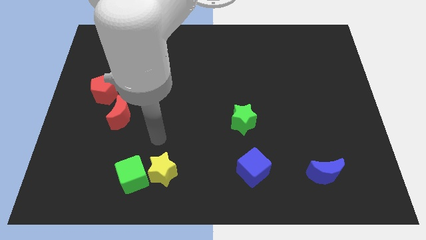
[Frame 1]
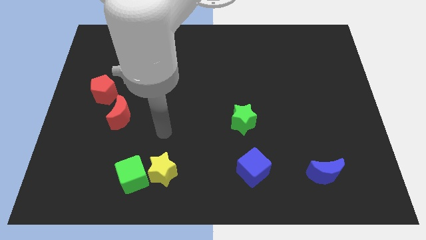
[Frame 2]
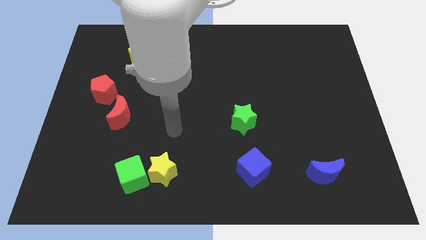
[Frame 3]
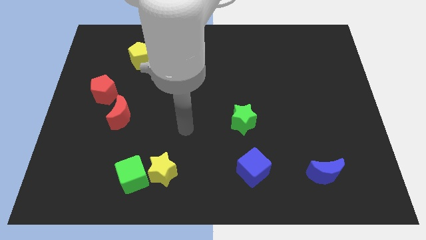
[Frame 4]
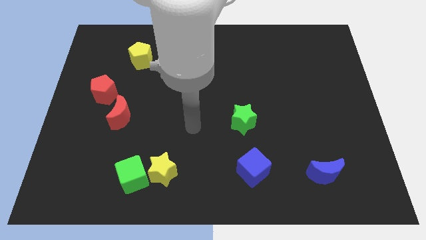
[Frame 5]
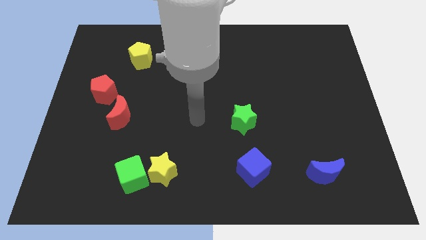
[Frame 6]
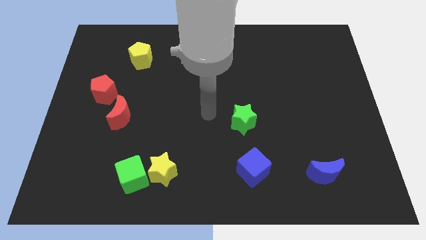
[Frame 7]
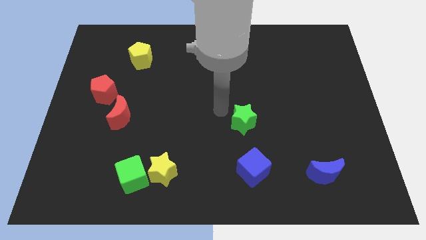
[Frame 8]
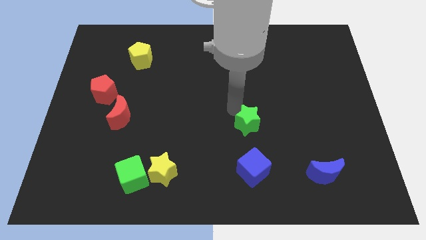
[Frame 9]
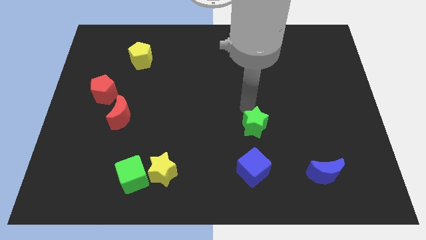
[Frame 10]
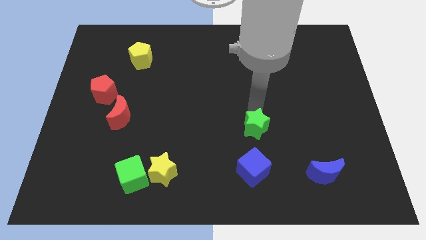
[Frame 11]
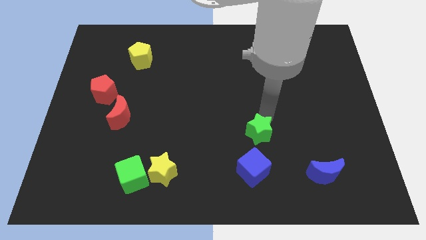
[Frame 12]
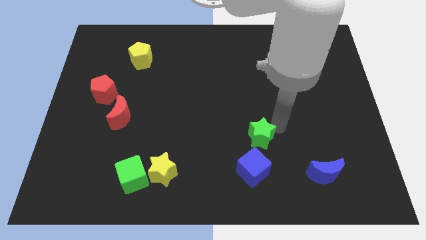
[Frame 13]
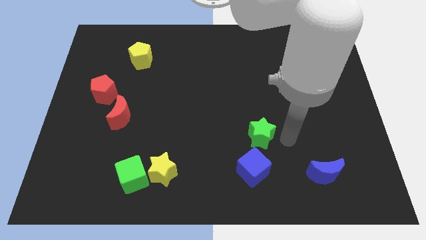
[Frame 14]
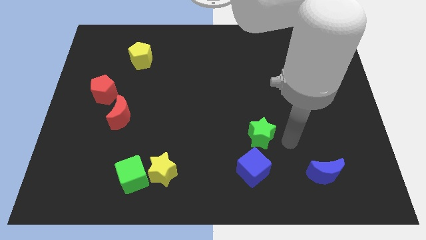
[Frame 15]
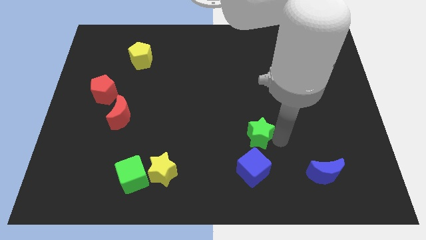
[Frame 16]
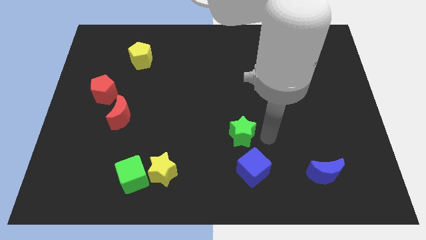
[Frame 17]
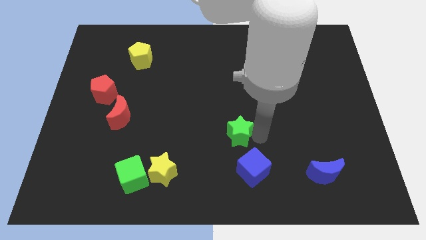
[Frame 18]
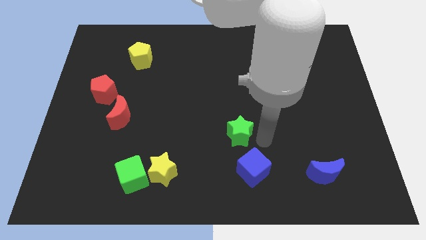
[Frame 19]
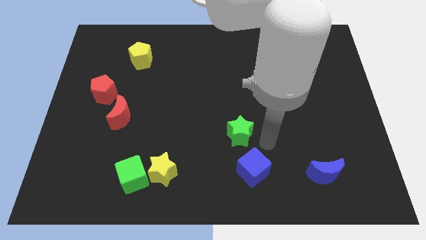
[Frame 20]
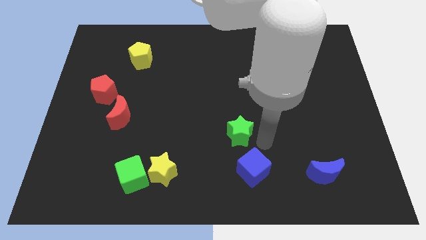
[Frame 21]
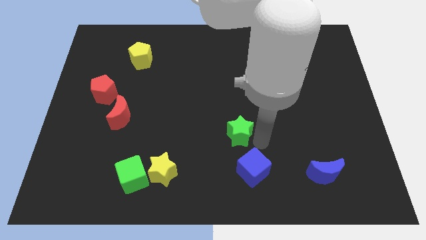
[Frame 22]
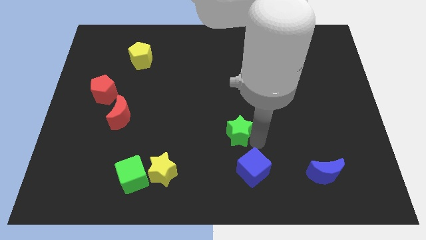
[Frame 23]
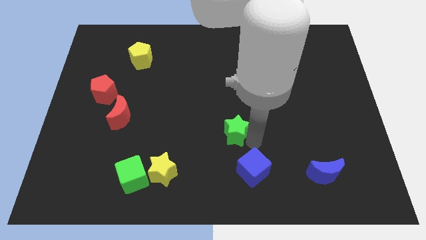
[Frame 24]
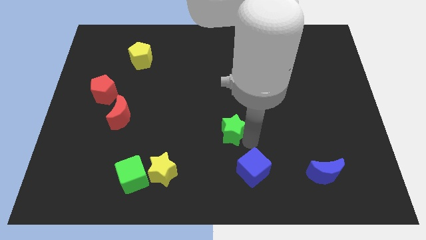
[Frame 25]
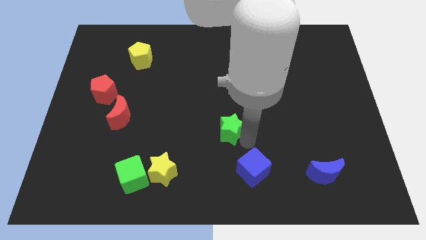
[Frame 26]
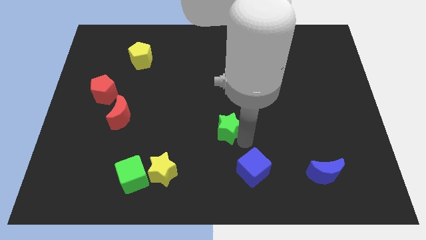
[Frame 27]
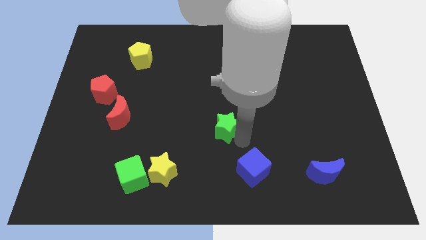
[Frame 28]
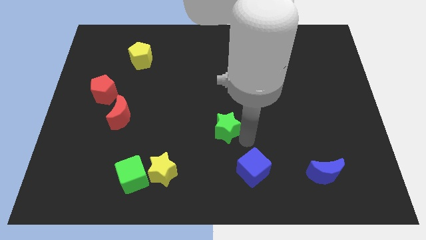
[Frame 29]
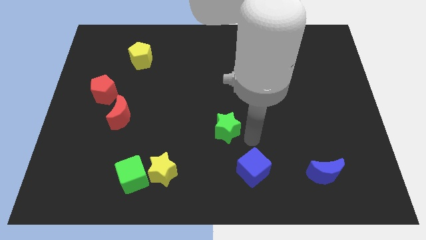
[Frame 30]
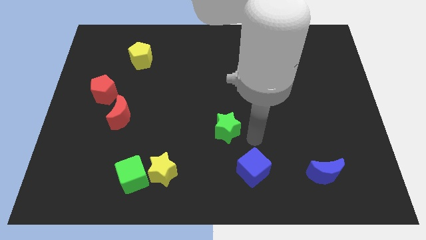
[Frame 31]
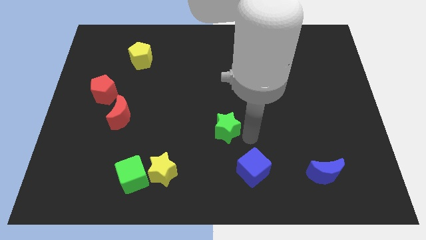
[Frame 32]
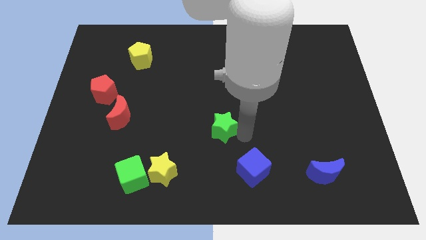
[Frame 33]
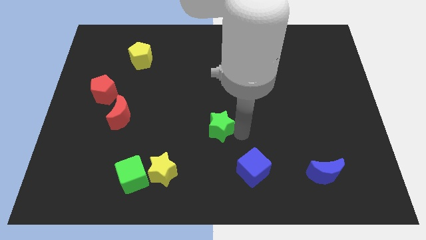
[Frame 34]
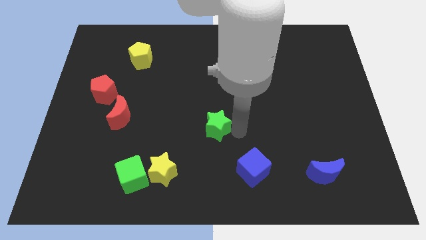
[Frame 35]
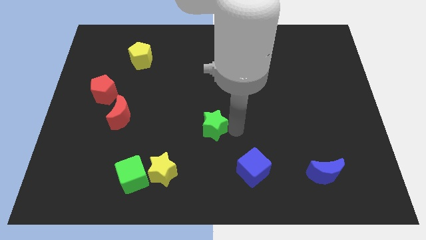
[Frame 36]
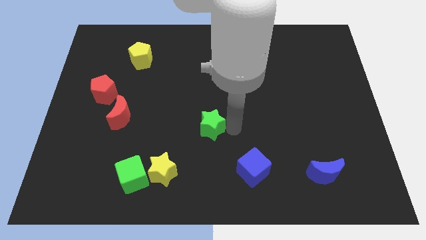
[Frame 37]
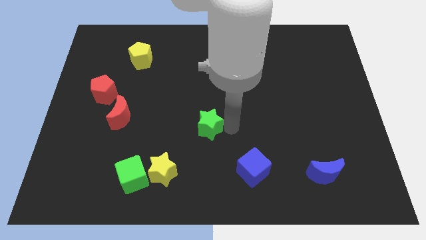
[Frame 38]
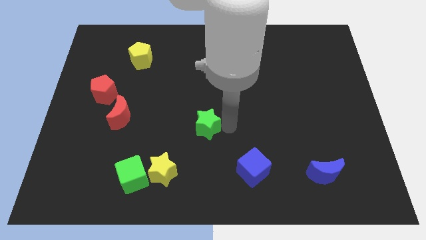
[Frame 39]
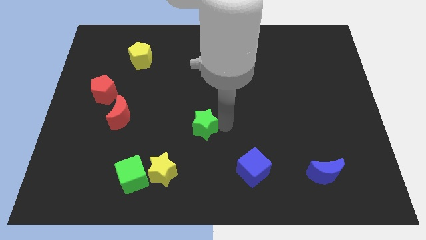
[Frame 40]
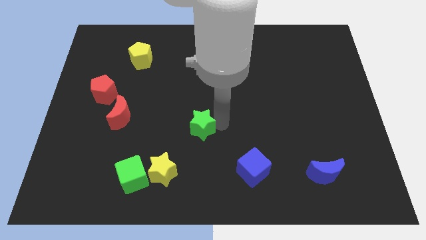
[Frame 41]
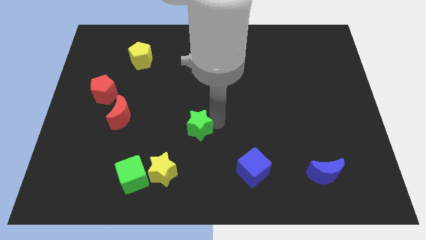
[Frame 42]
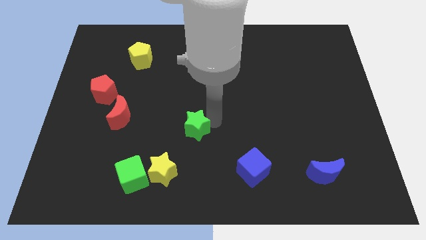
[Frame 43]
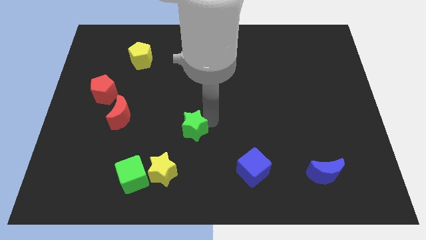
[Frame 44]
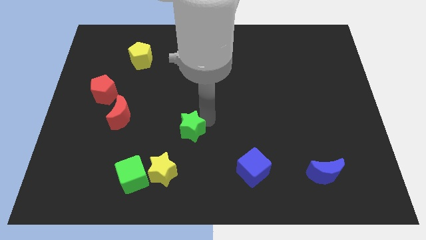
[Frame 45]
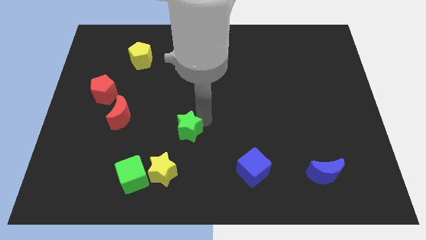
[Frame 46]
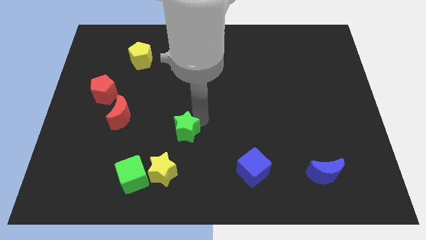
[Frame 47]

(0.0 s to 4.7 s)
move the green star above the yellow star

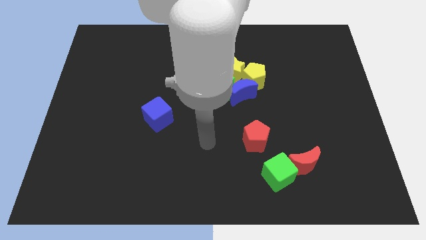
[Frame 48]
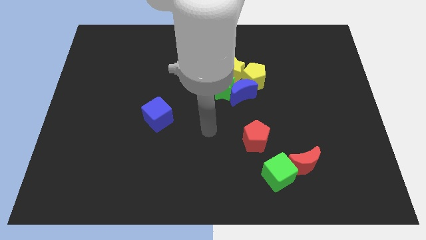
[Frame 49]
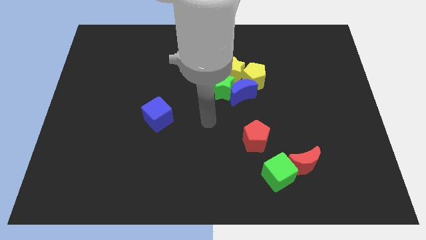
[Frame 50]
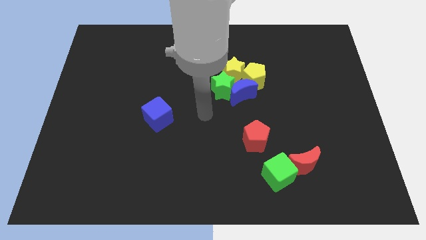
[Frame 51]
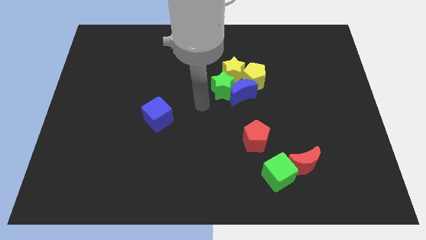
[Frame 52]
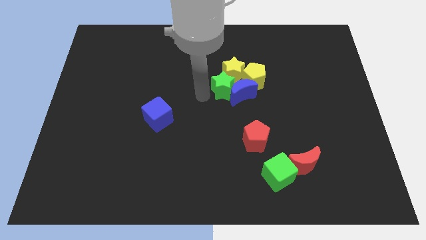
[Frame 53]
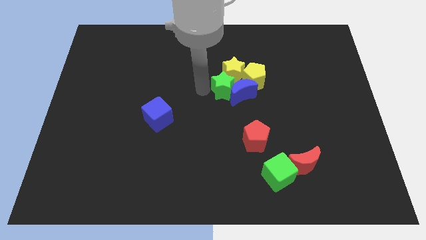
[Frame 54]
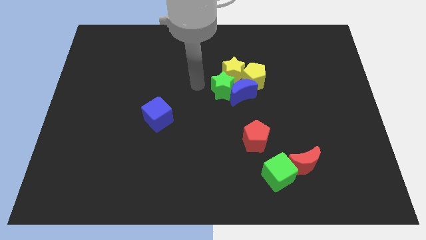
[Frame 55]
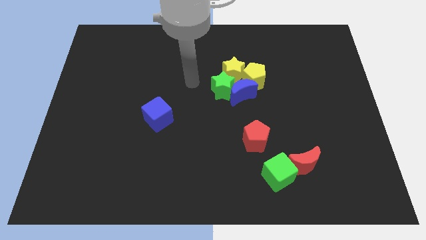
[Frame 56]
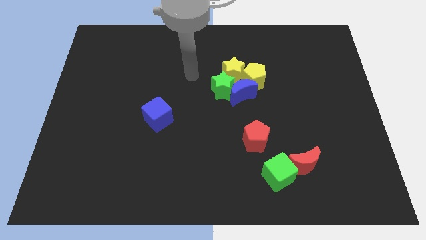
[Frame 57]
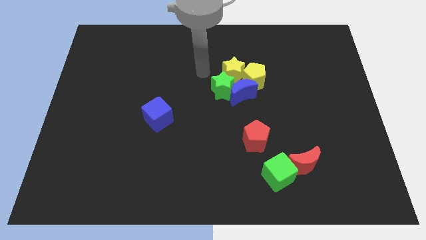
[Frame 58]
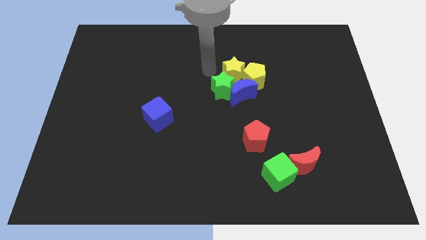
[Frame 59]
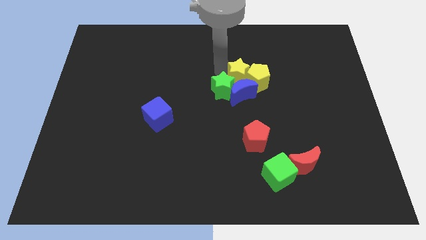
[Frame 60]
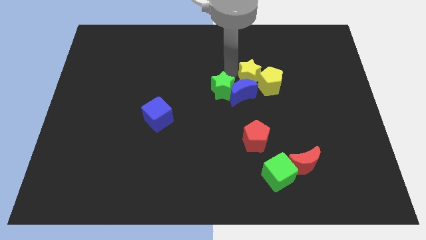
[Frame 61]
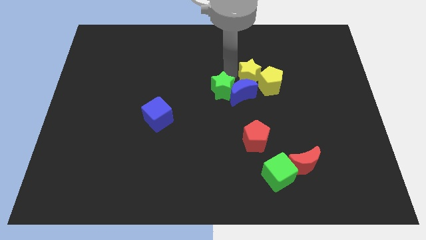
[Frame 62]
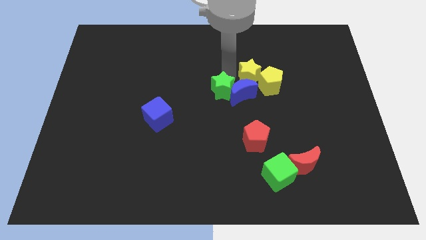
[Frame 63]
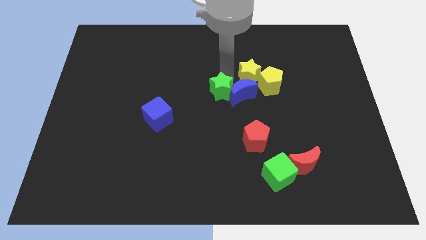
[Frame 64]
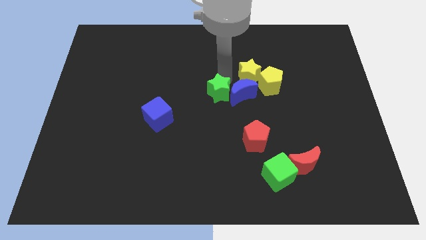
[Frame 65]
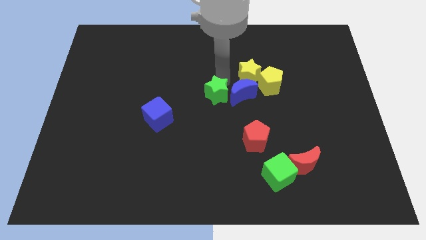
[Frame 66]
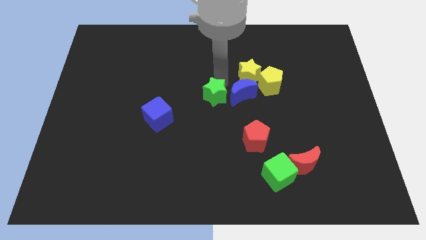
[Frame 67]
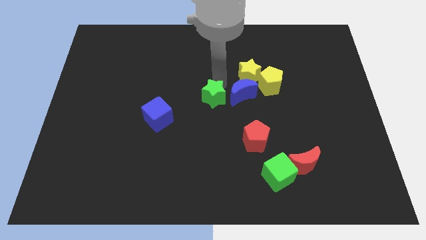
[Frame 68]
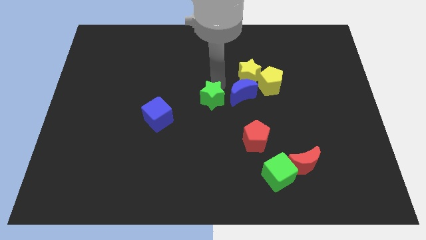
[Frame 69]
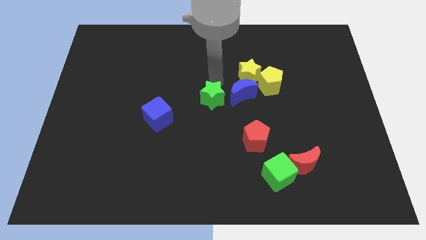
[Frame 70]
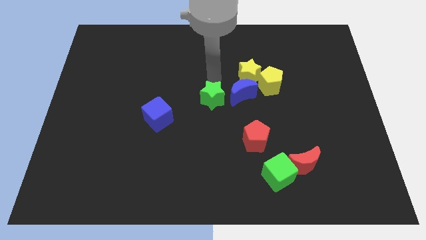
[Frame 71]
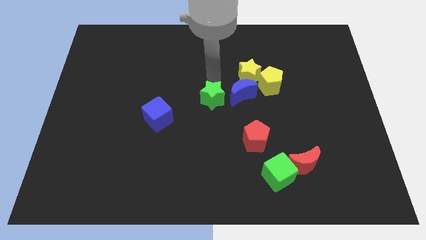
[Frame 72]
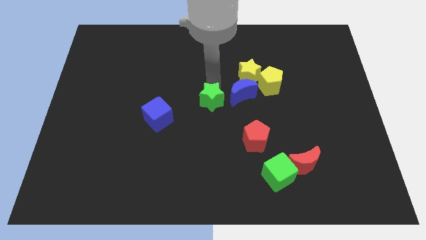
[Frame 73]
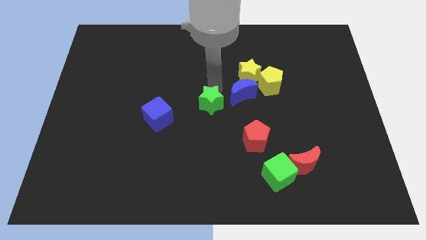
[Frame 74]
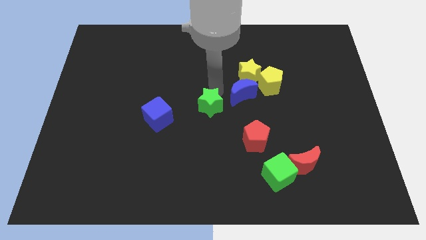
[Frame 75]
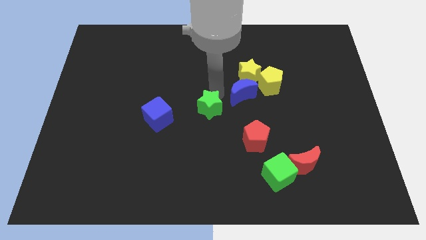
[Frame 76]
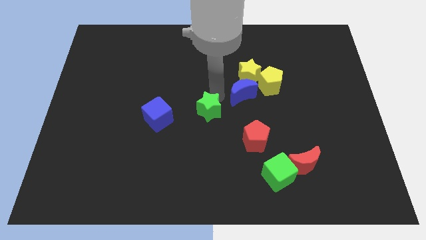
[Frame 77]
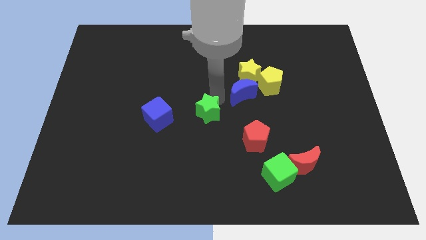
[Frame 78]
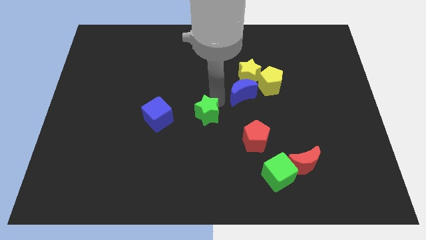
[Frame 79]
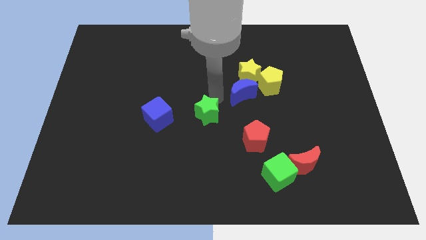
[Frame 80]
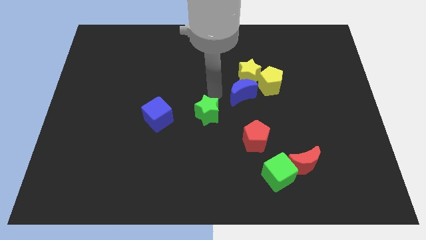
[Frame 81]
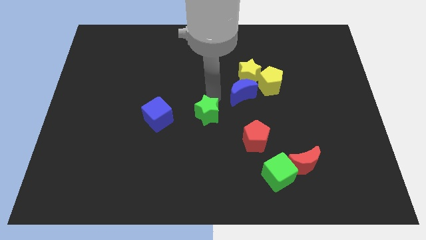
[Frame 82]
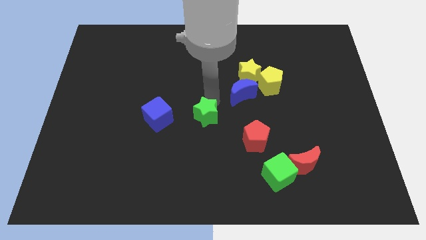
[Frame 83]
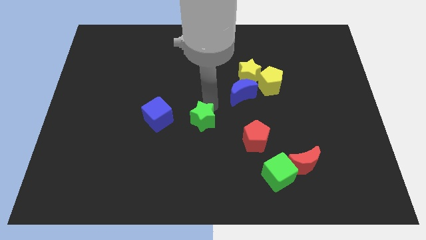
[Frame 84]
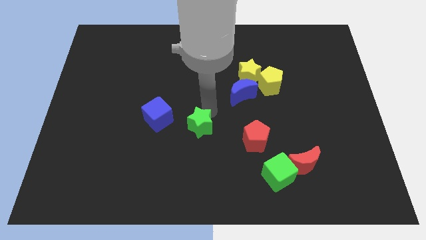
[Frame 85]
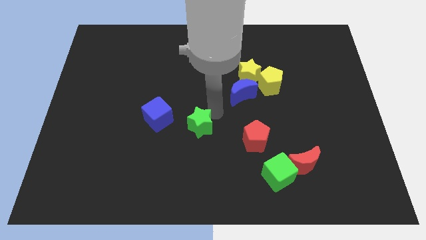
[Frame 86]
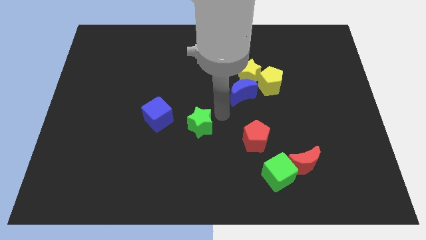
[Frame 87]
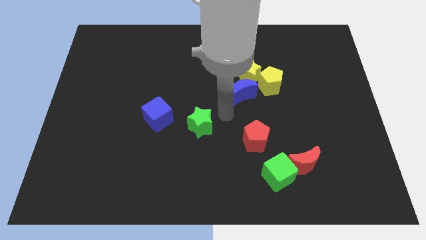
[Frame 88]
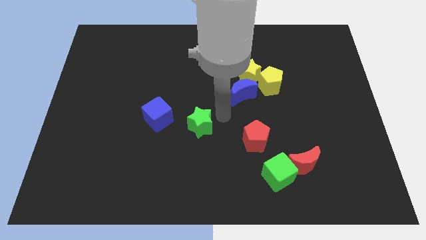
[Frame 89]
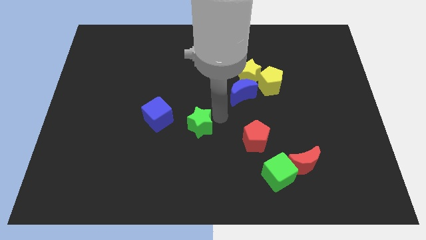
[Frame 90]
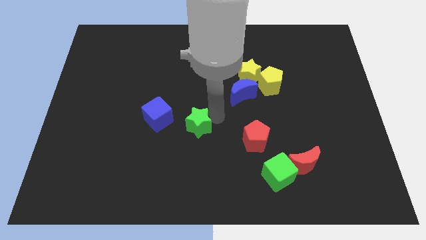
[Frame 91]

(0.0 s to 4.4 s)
put the green star to the bottom right of the blue cube
